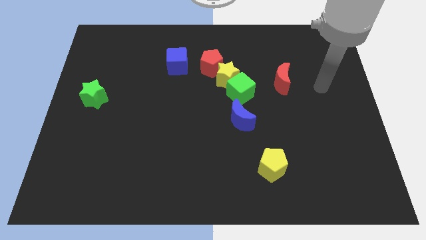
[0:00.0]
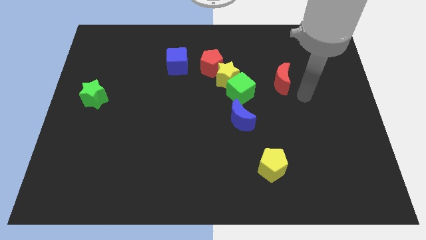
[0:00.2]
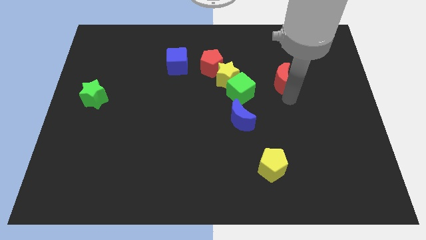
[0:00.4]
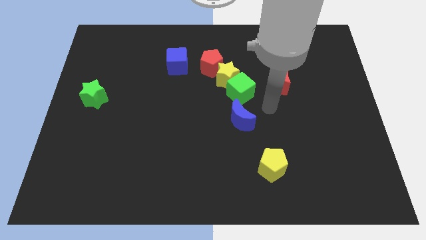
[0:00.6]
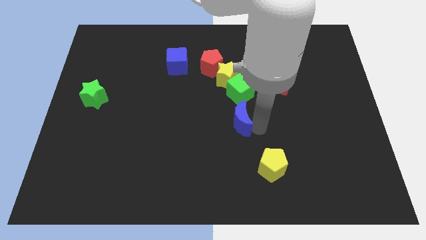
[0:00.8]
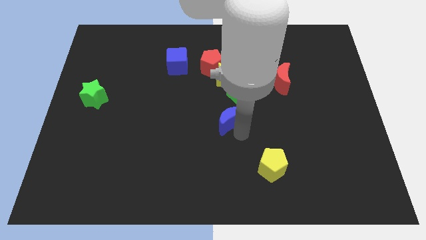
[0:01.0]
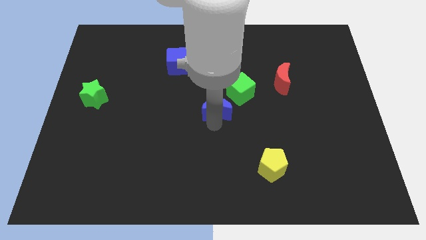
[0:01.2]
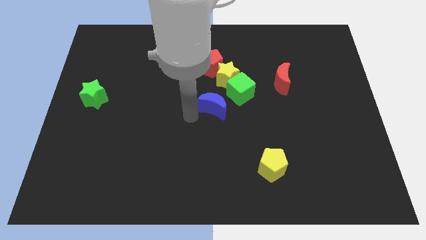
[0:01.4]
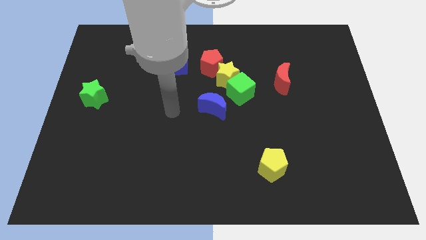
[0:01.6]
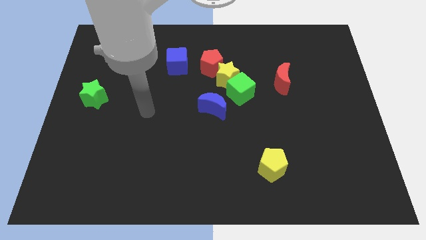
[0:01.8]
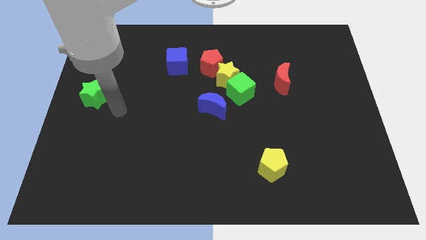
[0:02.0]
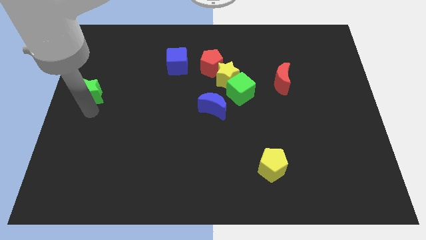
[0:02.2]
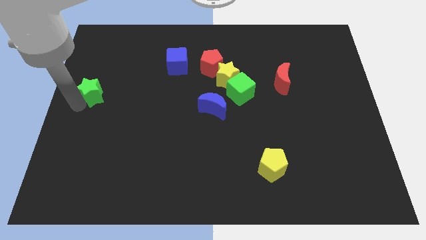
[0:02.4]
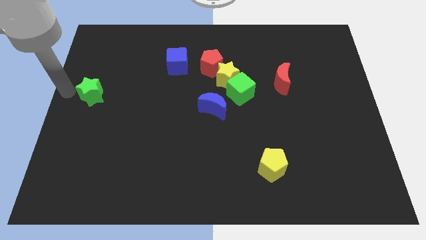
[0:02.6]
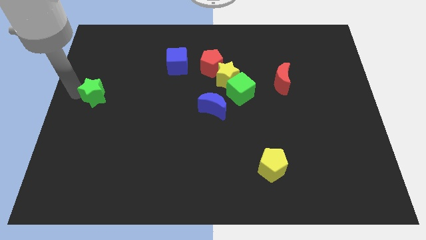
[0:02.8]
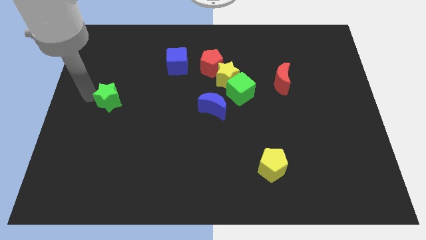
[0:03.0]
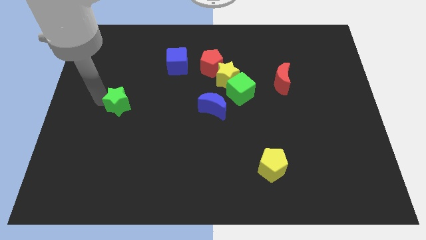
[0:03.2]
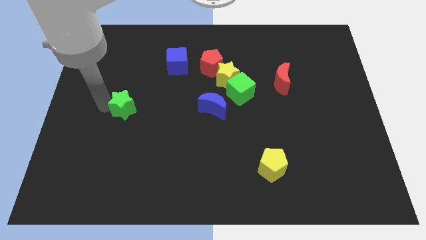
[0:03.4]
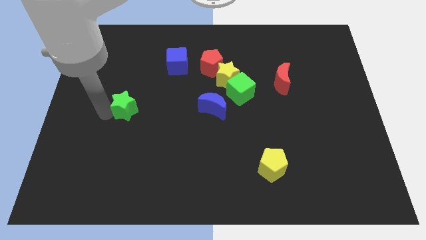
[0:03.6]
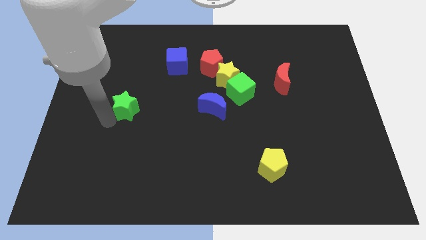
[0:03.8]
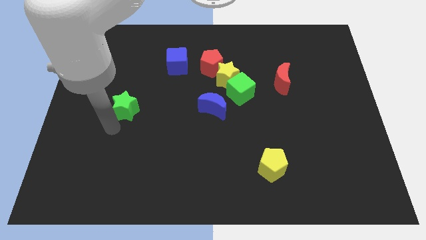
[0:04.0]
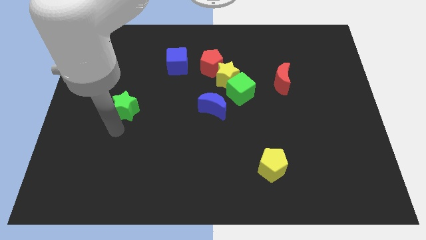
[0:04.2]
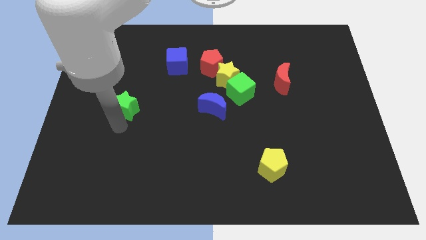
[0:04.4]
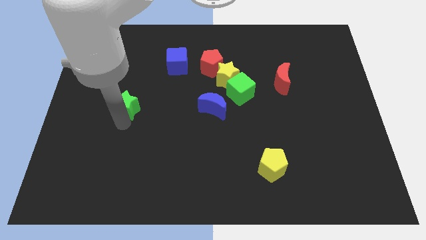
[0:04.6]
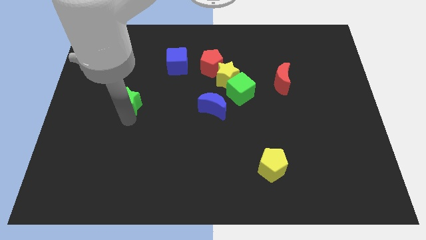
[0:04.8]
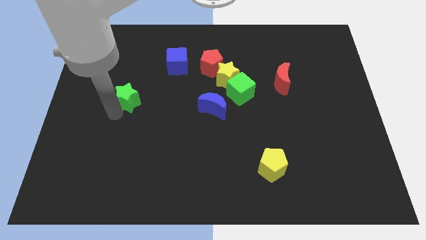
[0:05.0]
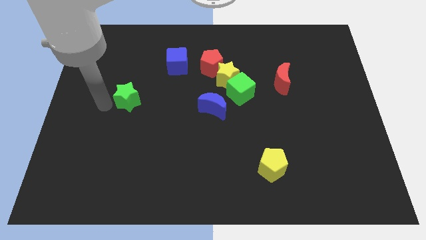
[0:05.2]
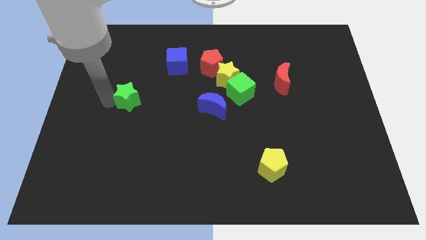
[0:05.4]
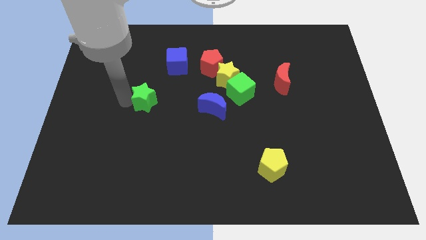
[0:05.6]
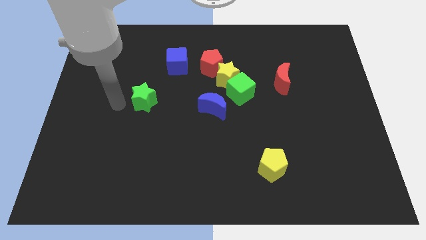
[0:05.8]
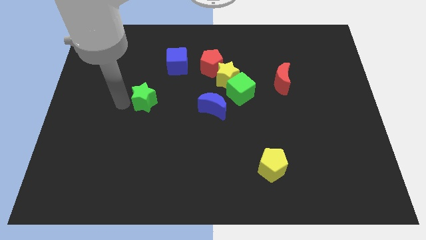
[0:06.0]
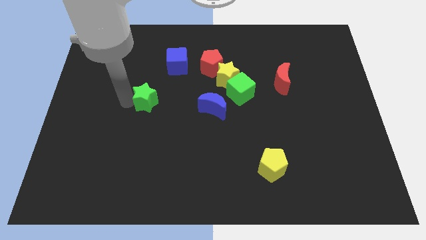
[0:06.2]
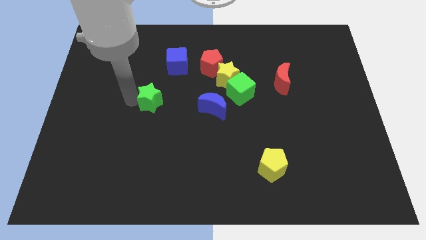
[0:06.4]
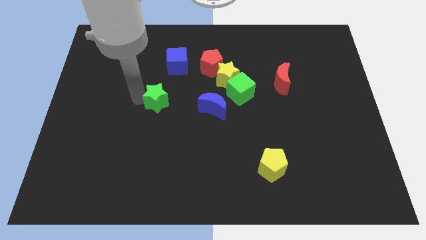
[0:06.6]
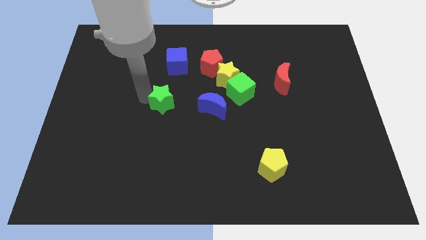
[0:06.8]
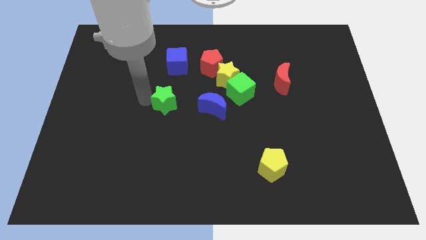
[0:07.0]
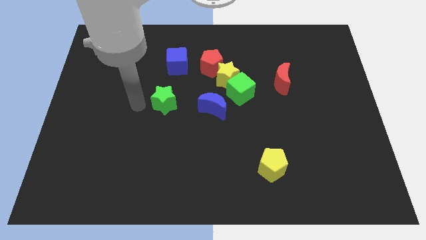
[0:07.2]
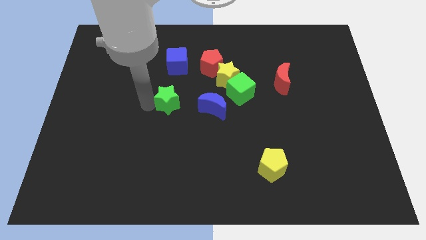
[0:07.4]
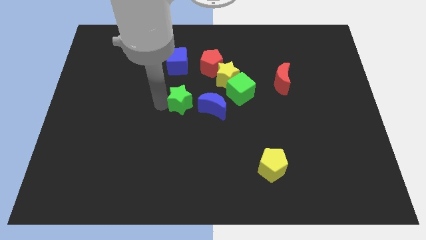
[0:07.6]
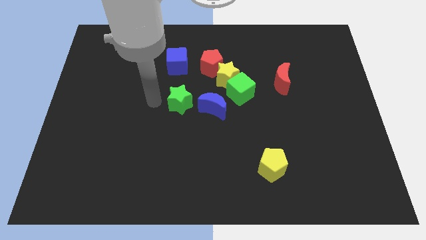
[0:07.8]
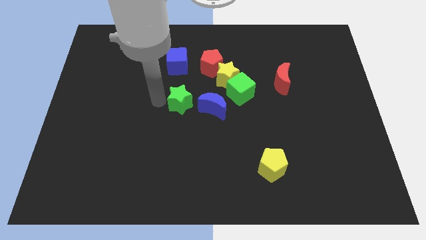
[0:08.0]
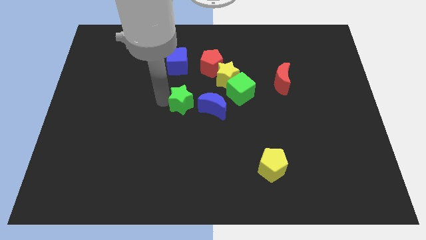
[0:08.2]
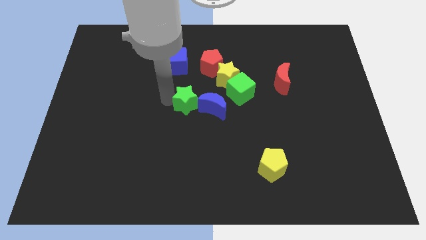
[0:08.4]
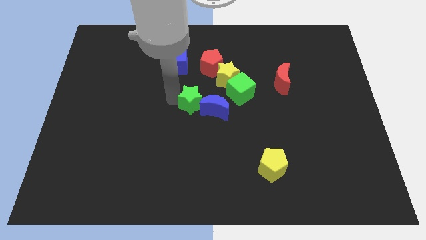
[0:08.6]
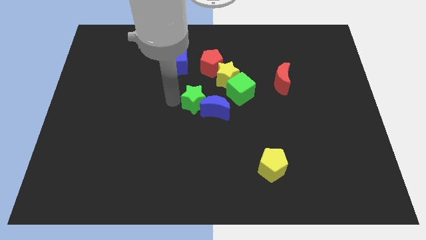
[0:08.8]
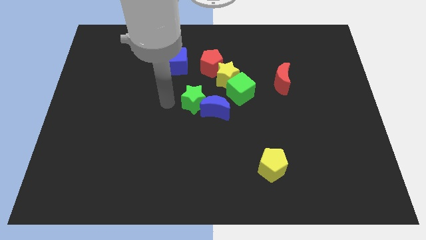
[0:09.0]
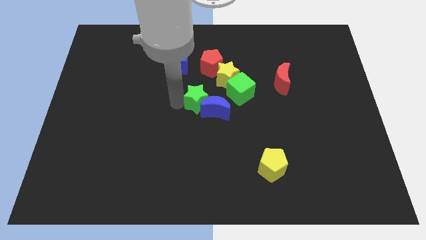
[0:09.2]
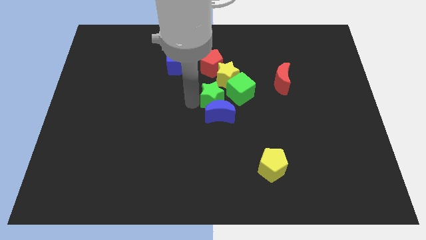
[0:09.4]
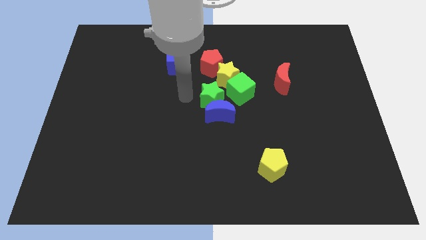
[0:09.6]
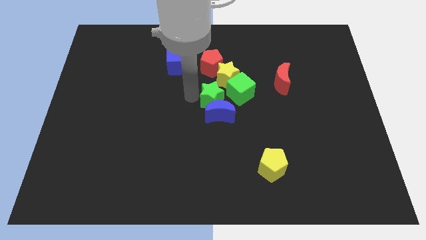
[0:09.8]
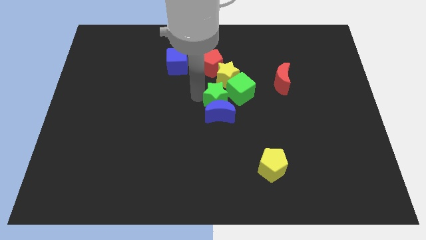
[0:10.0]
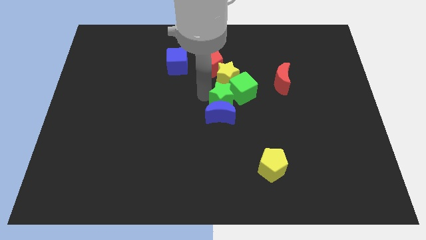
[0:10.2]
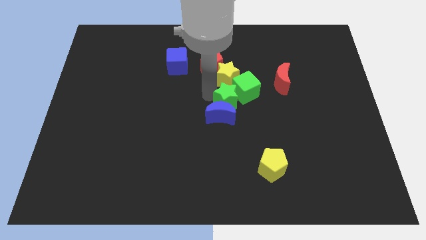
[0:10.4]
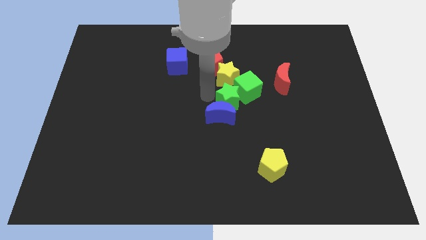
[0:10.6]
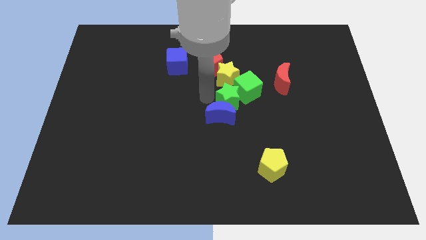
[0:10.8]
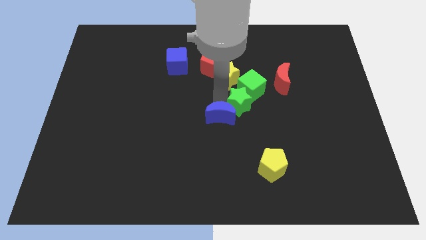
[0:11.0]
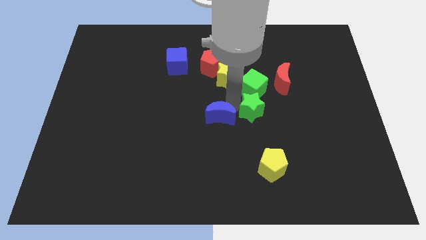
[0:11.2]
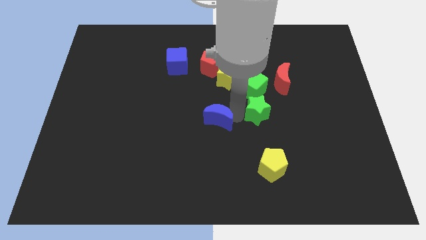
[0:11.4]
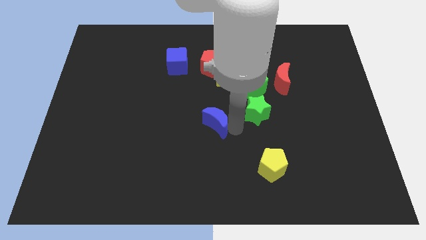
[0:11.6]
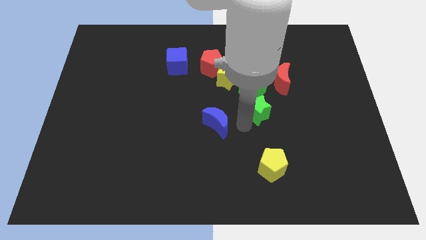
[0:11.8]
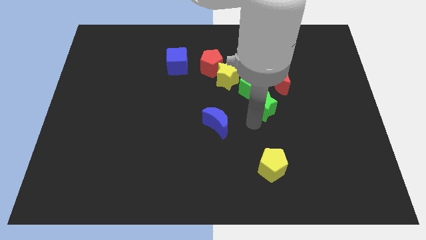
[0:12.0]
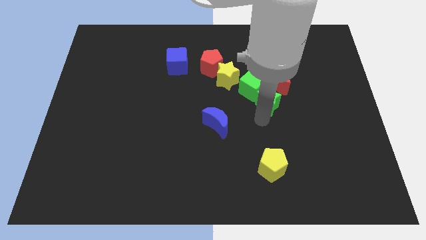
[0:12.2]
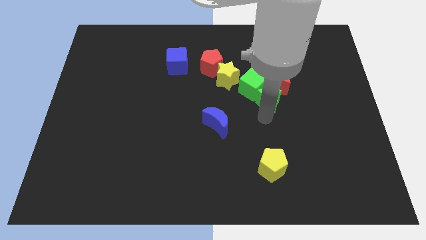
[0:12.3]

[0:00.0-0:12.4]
put the green star right of the green cube
